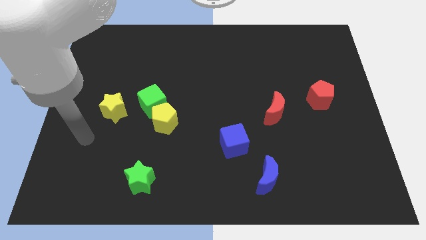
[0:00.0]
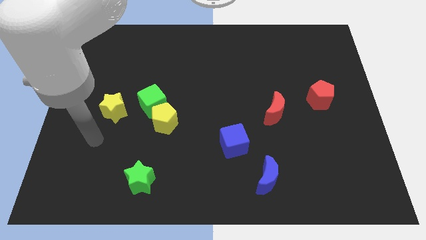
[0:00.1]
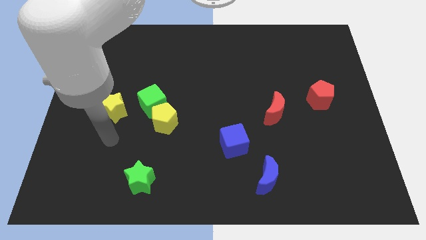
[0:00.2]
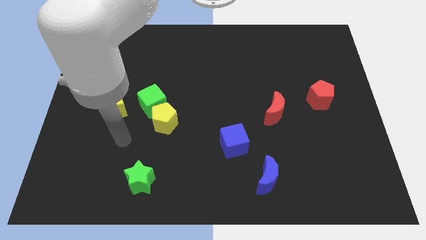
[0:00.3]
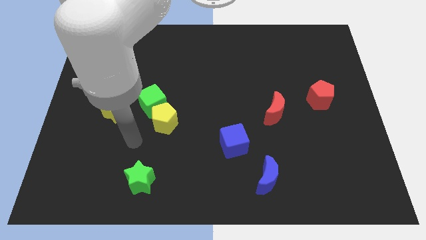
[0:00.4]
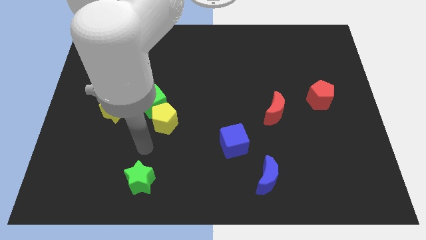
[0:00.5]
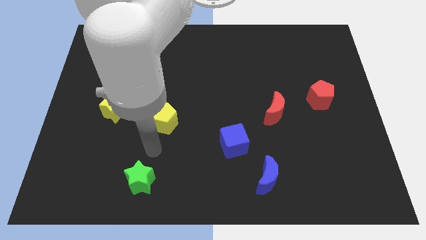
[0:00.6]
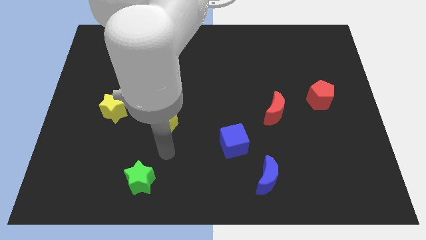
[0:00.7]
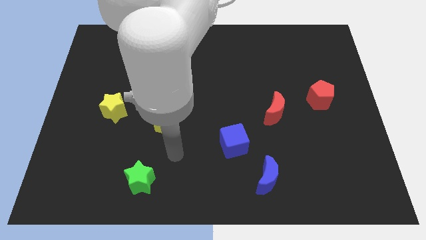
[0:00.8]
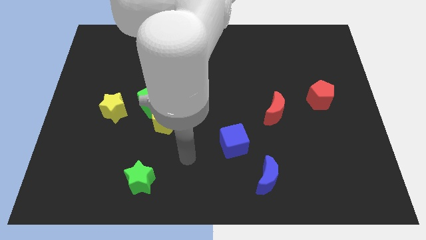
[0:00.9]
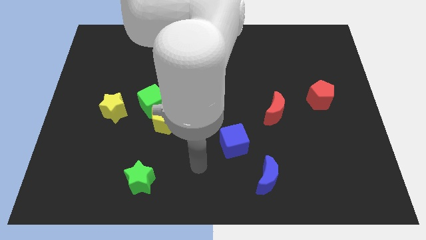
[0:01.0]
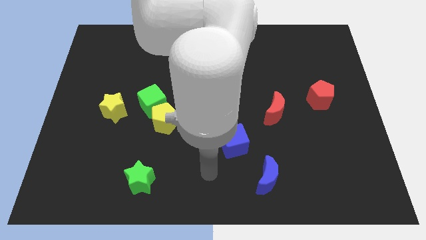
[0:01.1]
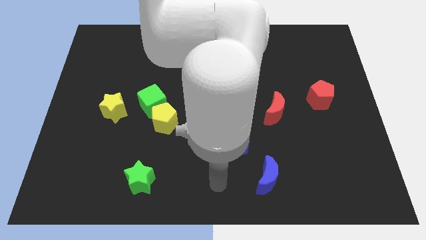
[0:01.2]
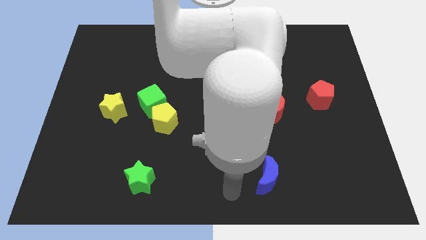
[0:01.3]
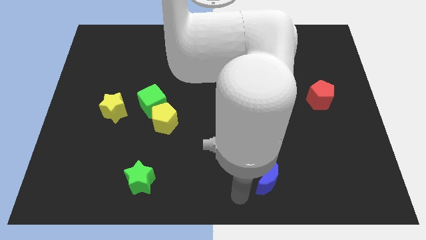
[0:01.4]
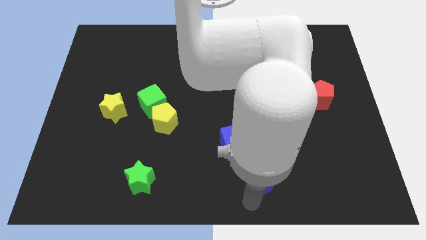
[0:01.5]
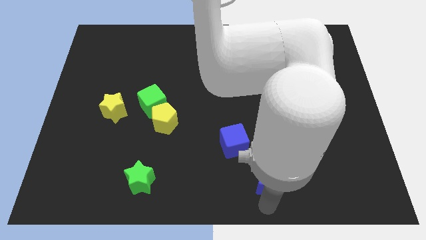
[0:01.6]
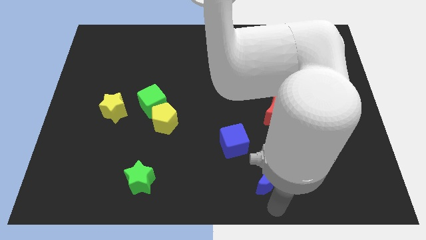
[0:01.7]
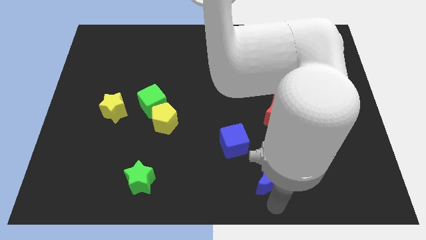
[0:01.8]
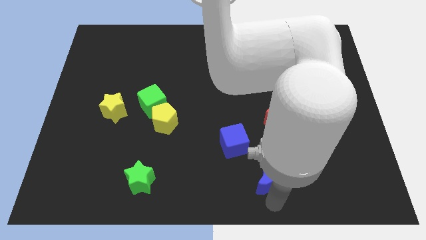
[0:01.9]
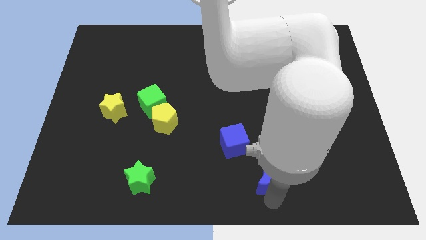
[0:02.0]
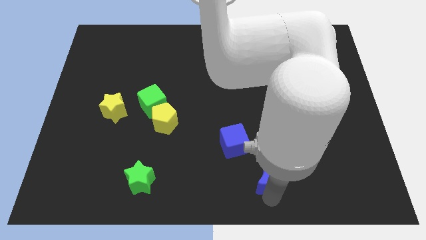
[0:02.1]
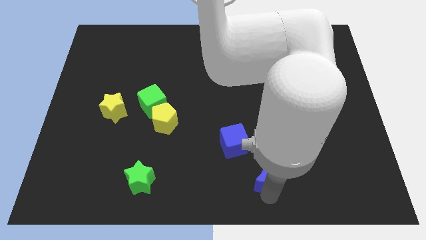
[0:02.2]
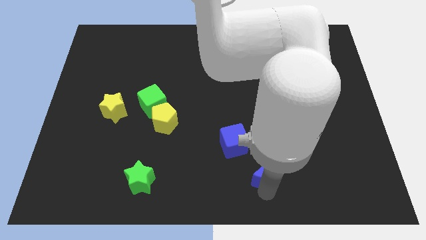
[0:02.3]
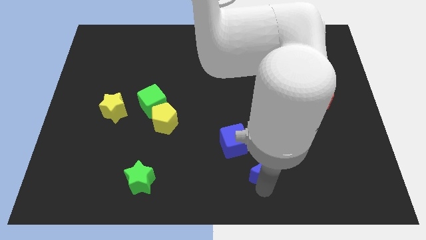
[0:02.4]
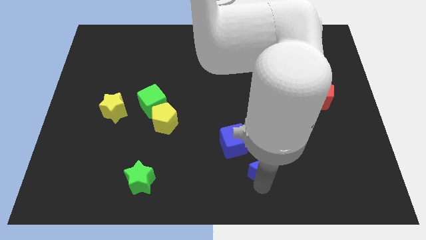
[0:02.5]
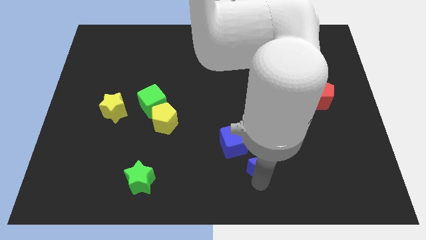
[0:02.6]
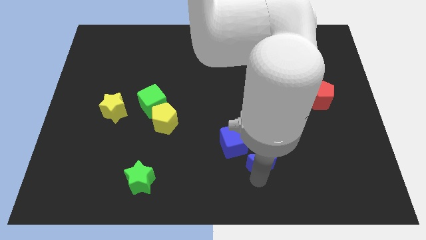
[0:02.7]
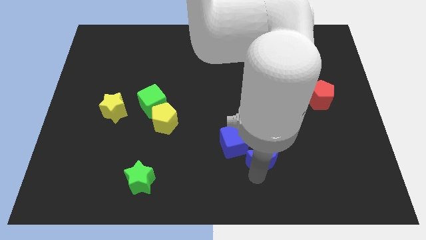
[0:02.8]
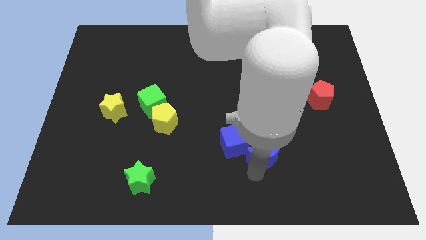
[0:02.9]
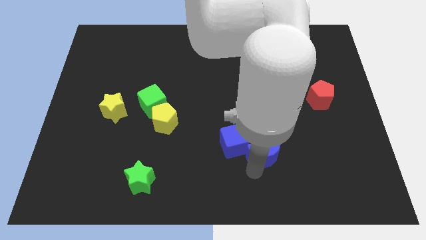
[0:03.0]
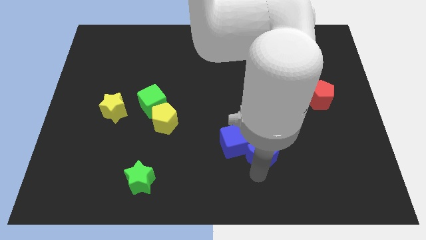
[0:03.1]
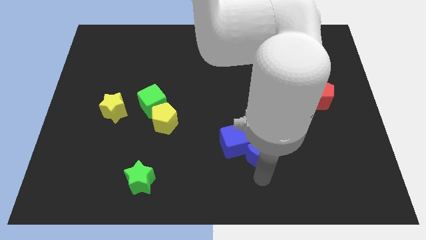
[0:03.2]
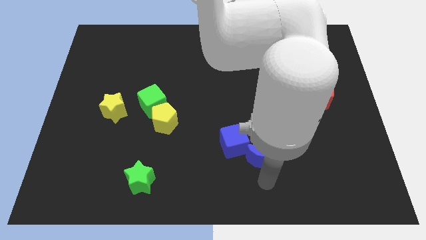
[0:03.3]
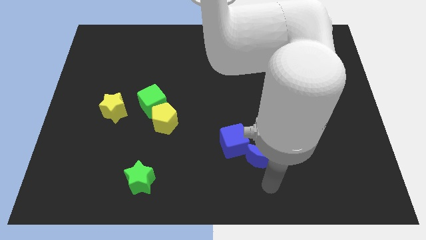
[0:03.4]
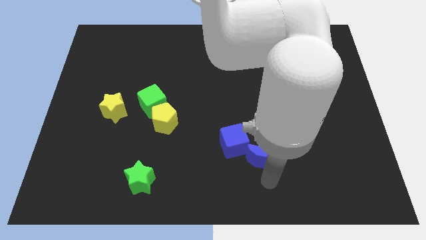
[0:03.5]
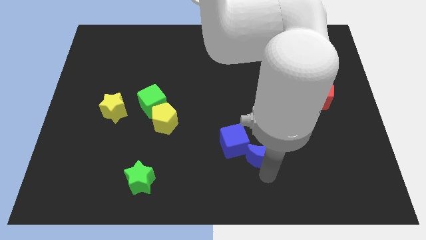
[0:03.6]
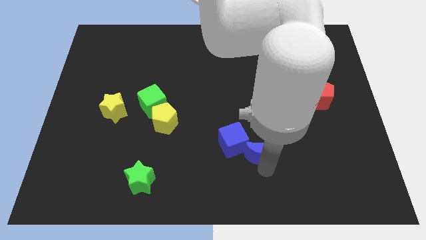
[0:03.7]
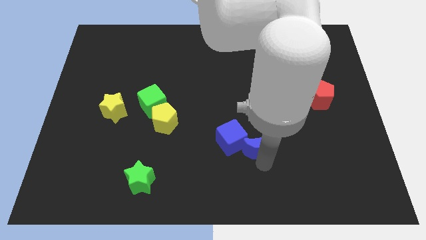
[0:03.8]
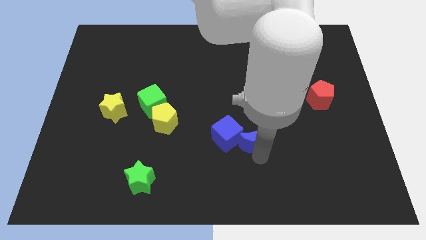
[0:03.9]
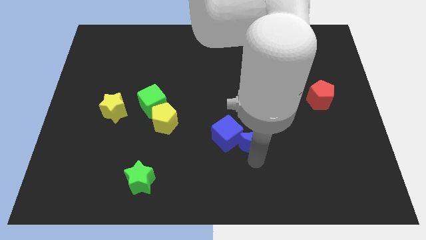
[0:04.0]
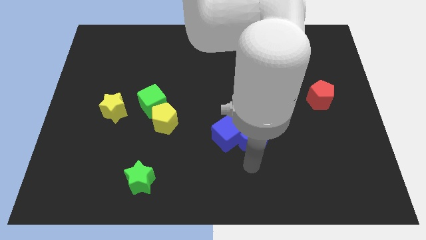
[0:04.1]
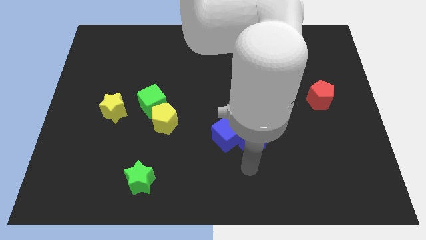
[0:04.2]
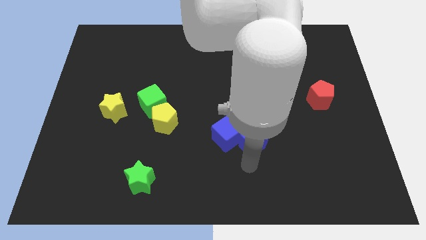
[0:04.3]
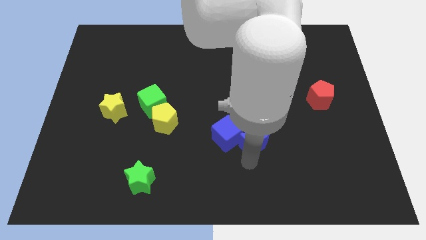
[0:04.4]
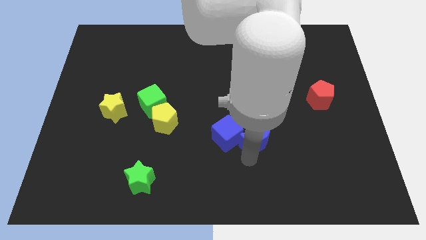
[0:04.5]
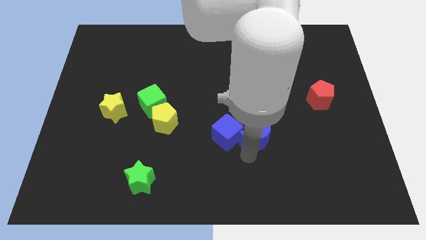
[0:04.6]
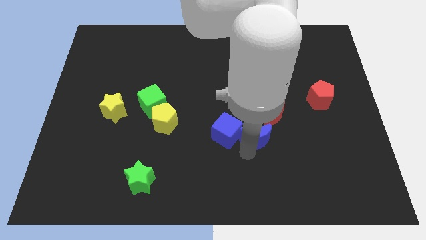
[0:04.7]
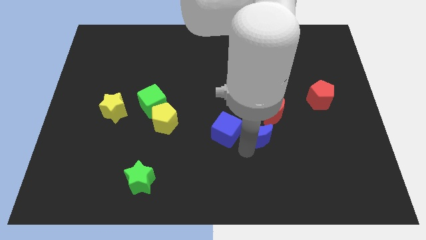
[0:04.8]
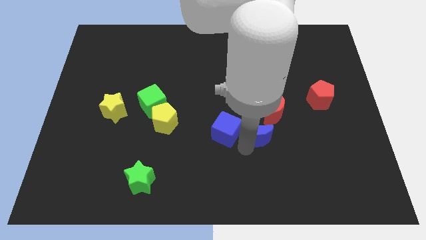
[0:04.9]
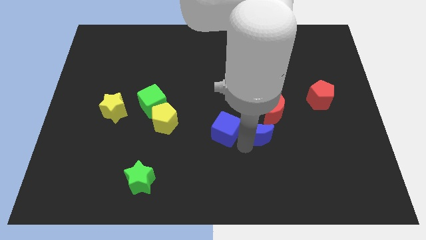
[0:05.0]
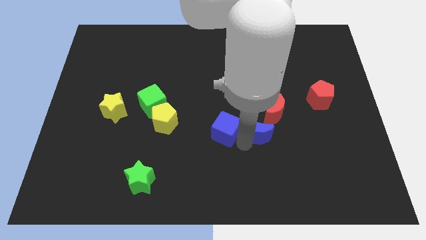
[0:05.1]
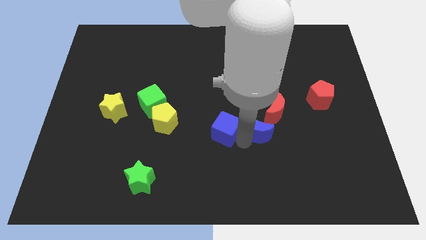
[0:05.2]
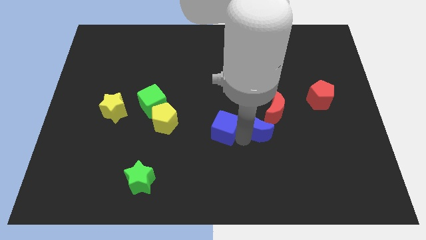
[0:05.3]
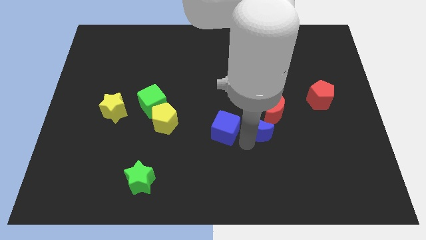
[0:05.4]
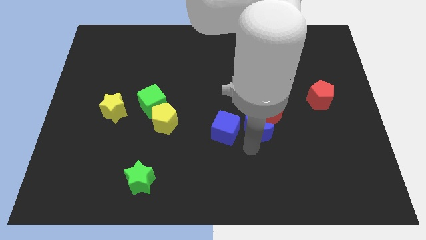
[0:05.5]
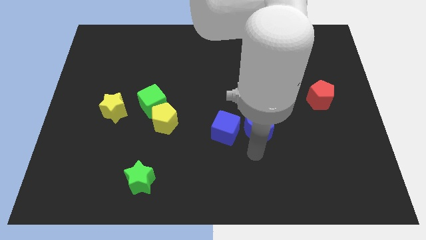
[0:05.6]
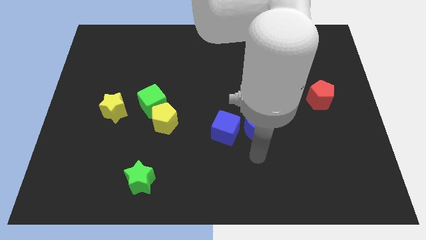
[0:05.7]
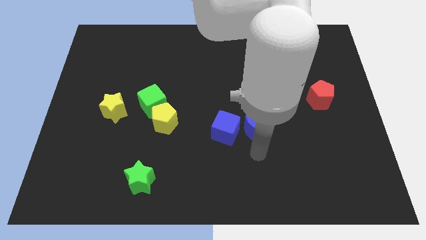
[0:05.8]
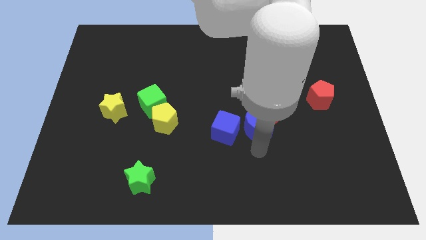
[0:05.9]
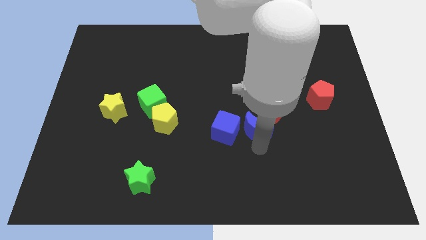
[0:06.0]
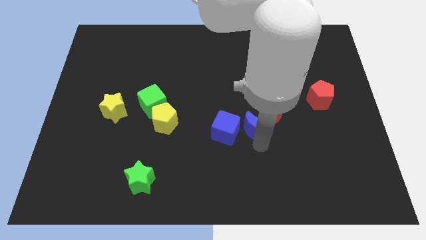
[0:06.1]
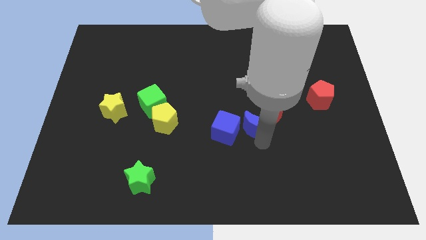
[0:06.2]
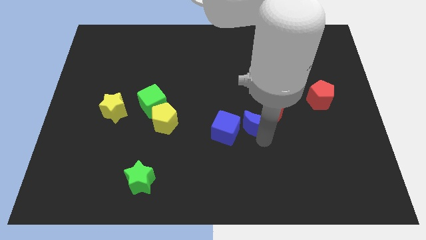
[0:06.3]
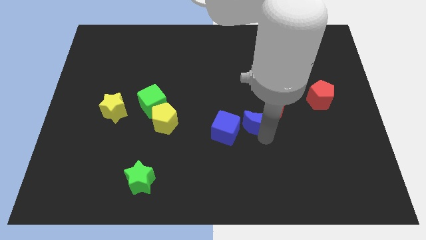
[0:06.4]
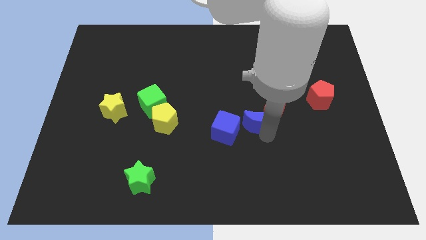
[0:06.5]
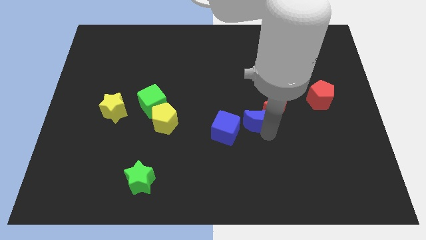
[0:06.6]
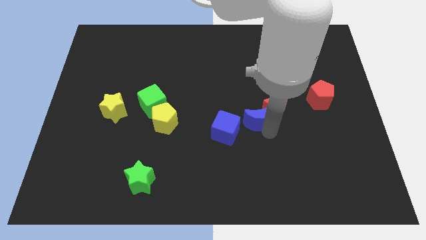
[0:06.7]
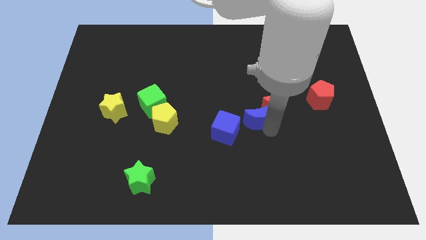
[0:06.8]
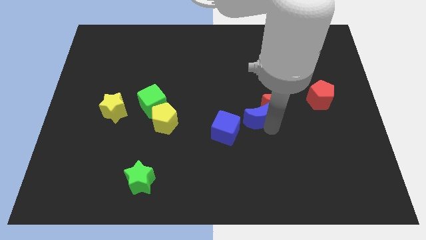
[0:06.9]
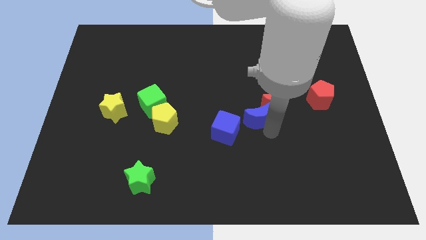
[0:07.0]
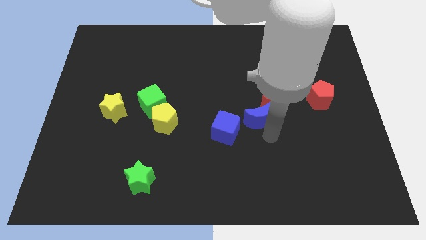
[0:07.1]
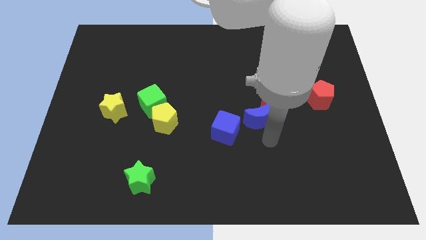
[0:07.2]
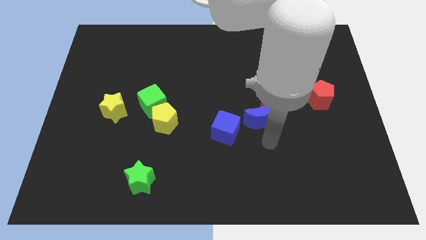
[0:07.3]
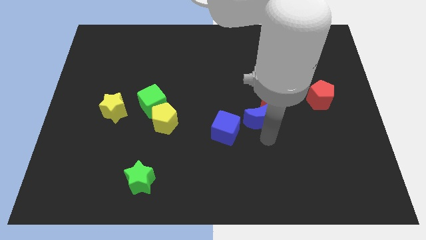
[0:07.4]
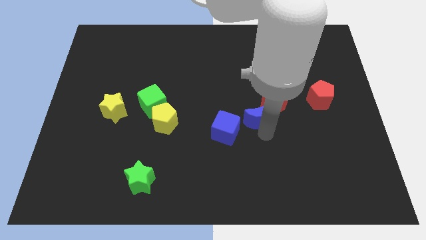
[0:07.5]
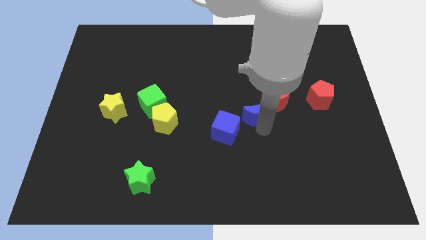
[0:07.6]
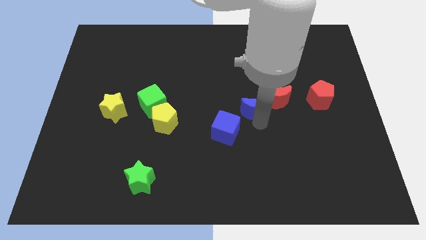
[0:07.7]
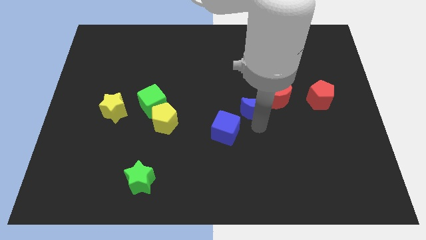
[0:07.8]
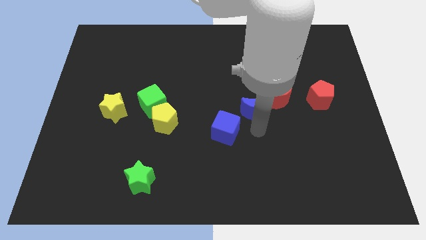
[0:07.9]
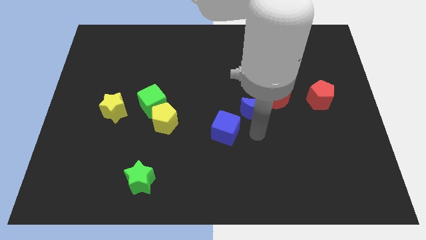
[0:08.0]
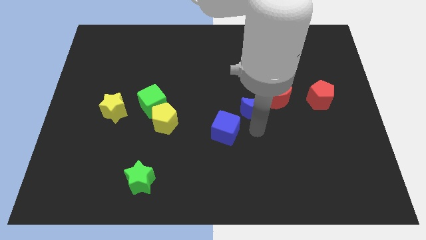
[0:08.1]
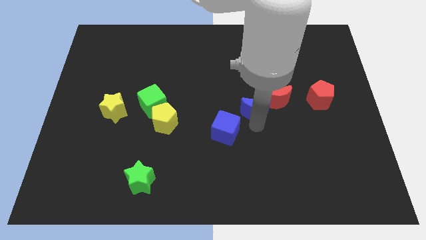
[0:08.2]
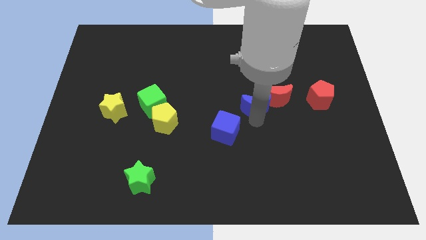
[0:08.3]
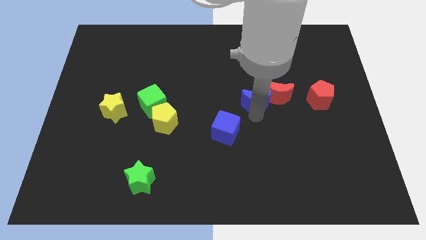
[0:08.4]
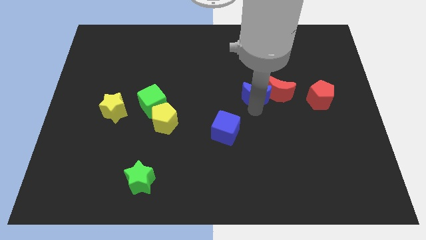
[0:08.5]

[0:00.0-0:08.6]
slide the blue moon upwards
